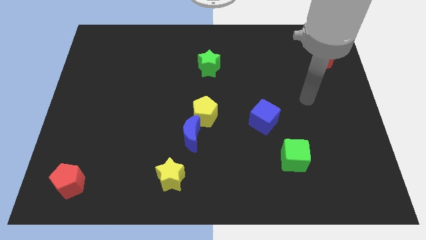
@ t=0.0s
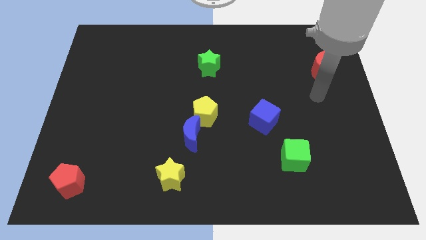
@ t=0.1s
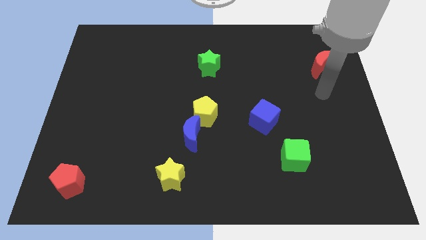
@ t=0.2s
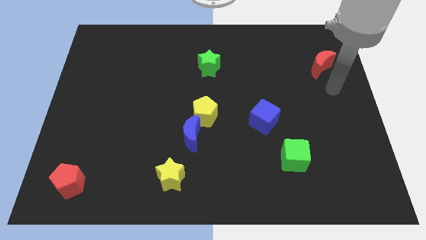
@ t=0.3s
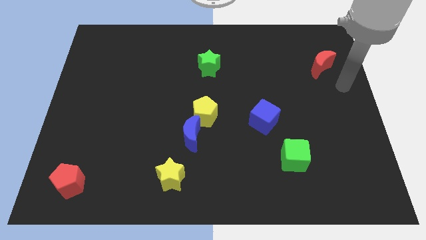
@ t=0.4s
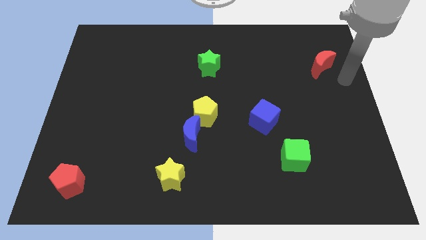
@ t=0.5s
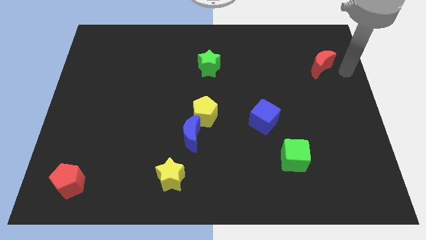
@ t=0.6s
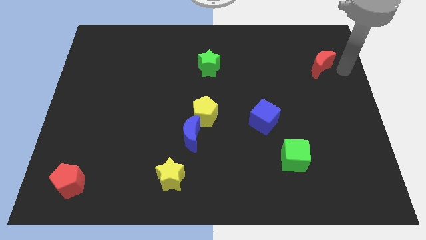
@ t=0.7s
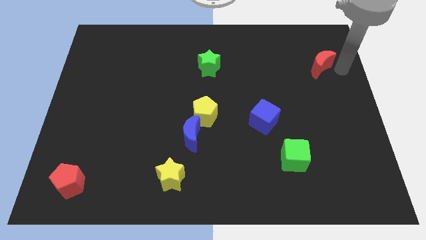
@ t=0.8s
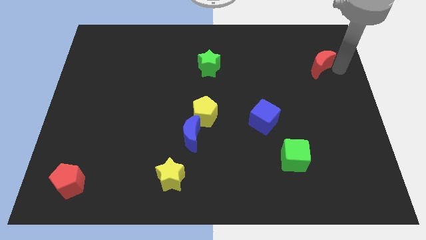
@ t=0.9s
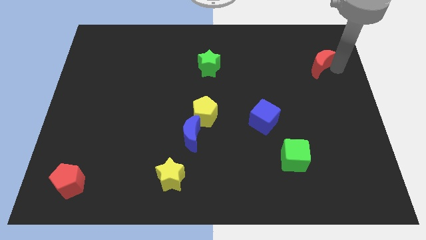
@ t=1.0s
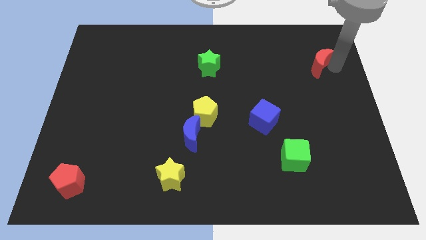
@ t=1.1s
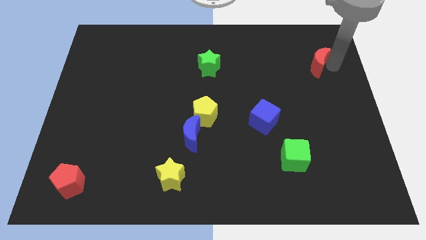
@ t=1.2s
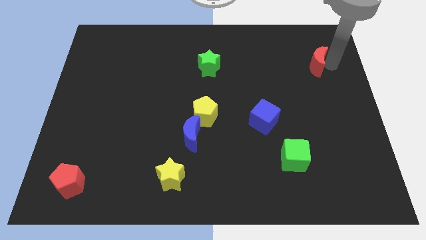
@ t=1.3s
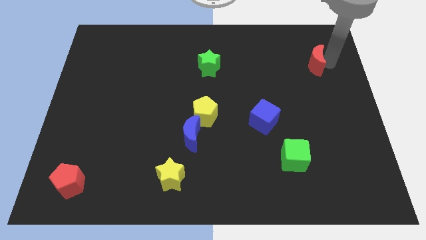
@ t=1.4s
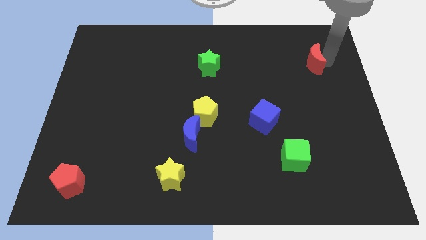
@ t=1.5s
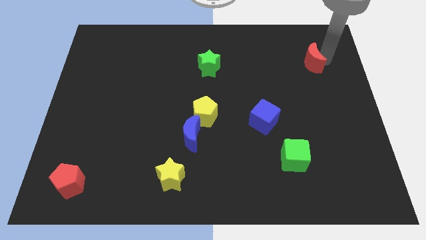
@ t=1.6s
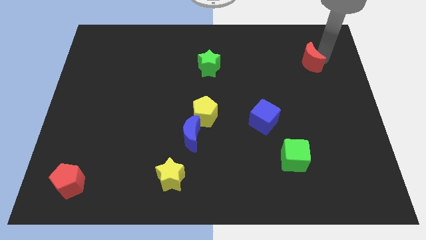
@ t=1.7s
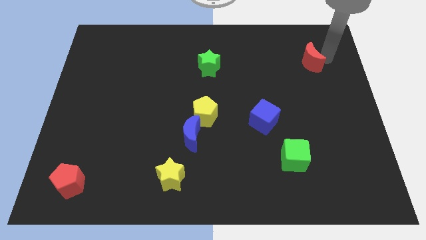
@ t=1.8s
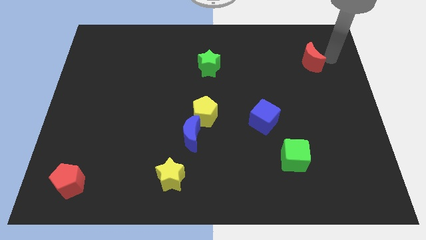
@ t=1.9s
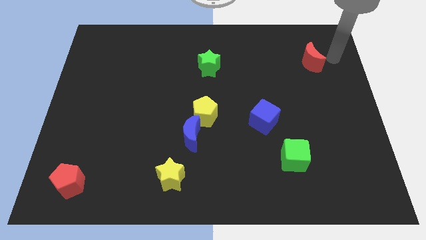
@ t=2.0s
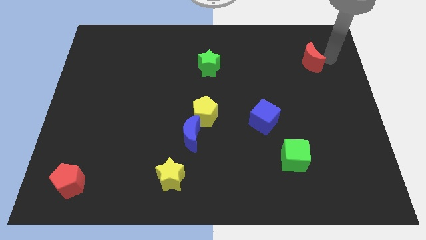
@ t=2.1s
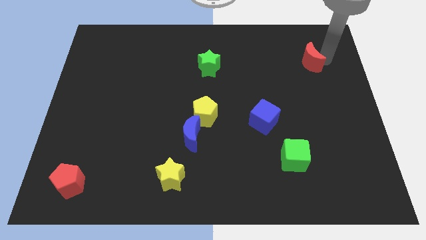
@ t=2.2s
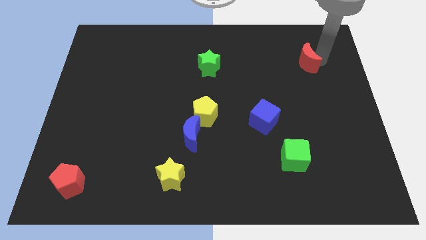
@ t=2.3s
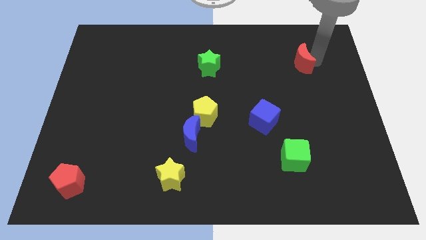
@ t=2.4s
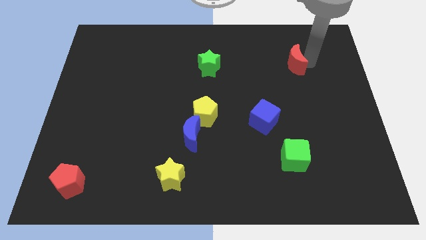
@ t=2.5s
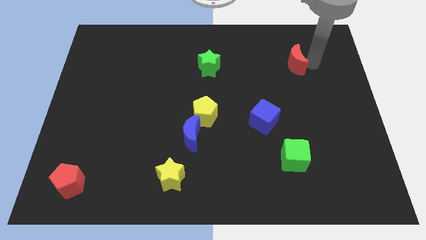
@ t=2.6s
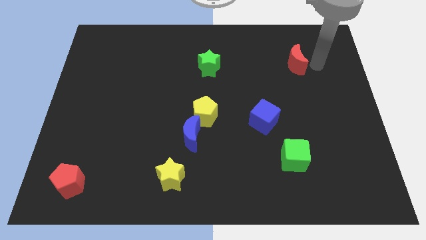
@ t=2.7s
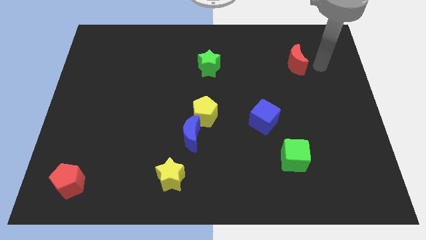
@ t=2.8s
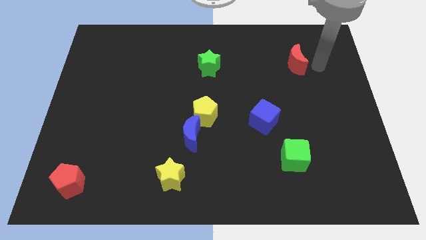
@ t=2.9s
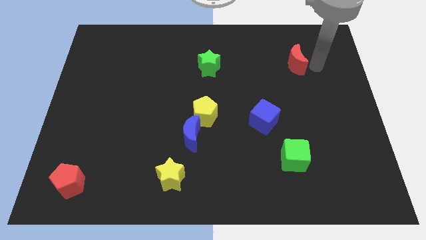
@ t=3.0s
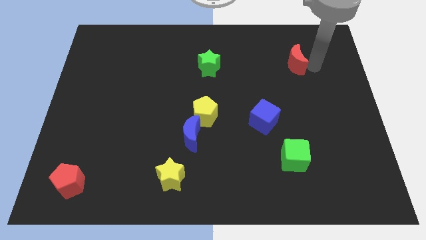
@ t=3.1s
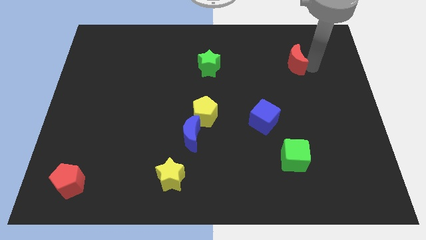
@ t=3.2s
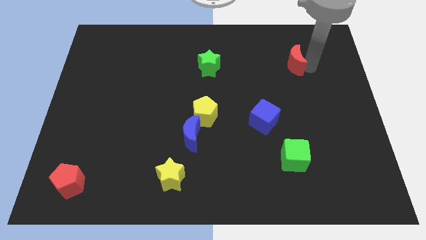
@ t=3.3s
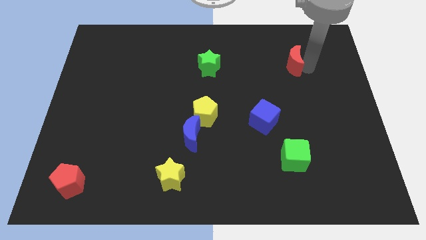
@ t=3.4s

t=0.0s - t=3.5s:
push the red moon to the left slightly

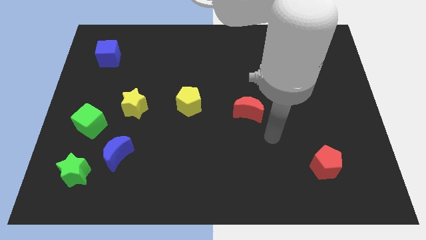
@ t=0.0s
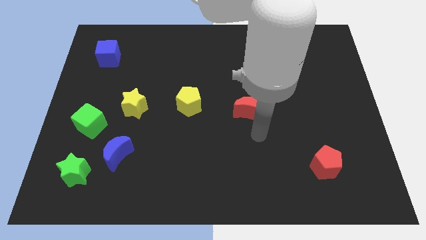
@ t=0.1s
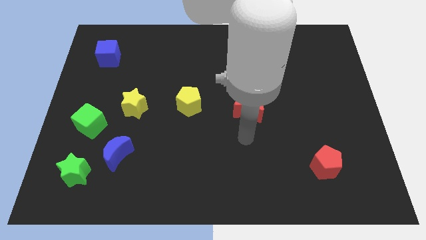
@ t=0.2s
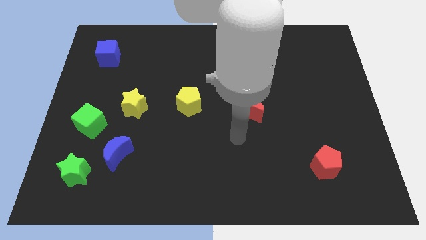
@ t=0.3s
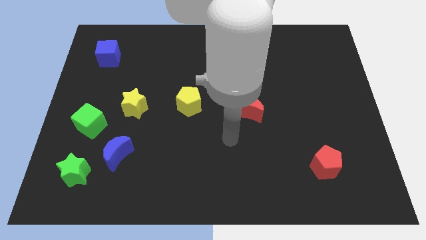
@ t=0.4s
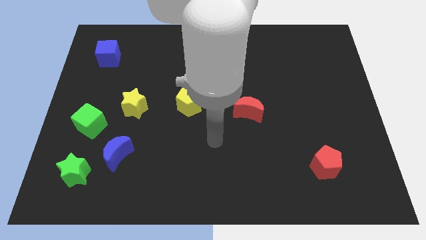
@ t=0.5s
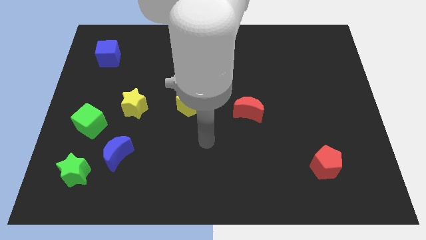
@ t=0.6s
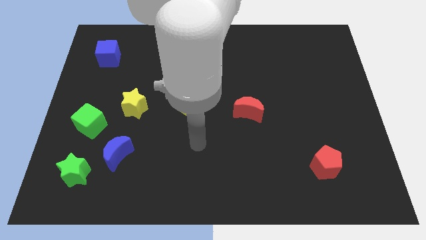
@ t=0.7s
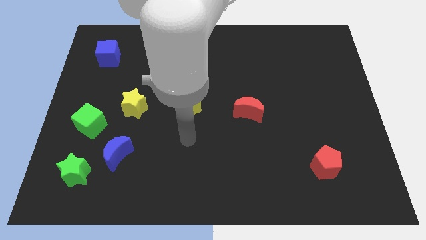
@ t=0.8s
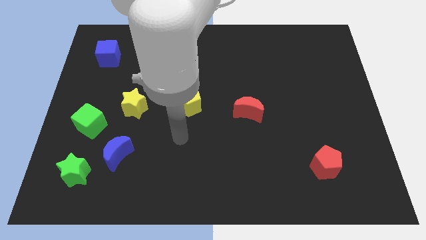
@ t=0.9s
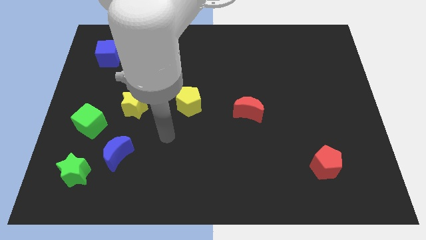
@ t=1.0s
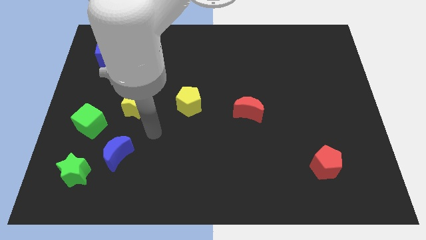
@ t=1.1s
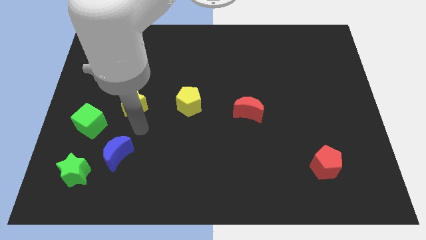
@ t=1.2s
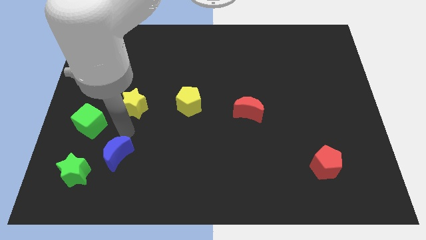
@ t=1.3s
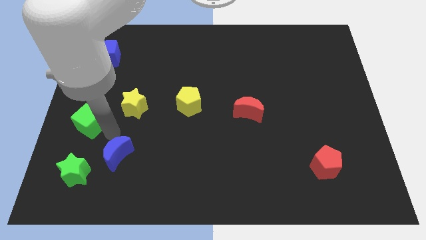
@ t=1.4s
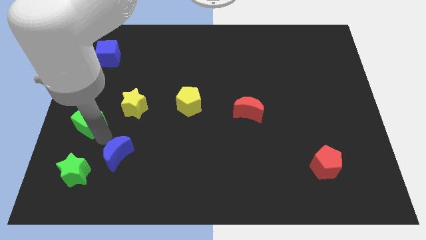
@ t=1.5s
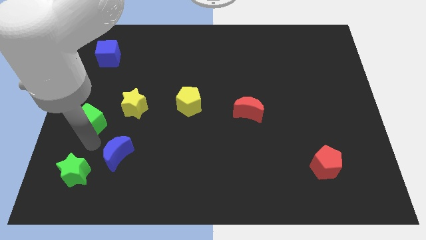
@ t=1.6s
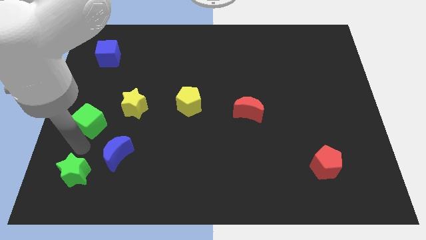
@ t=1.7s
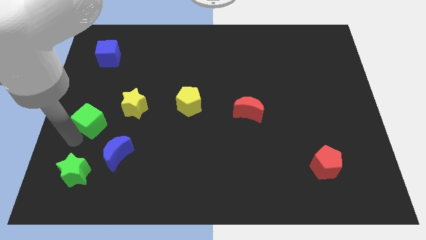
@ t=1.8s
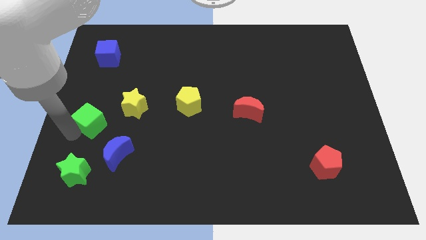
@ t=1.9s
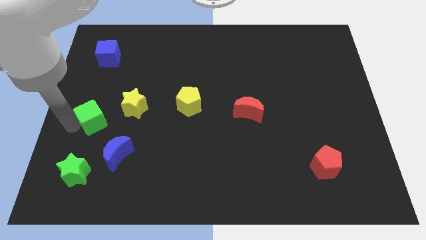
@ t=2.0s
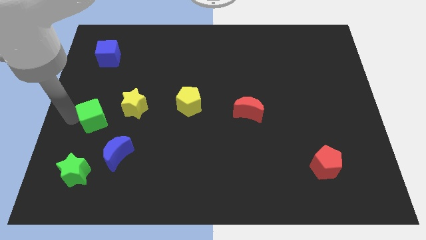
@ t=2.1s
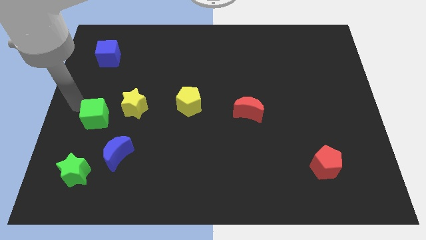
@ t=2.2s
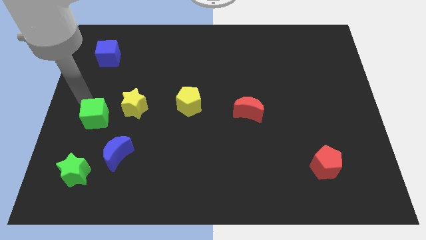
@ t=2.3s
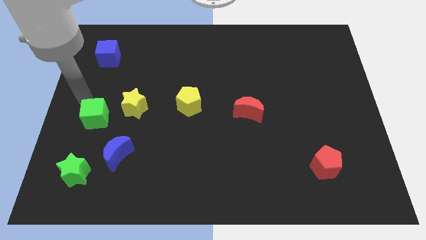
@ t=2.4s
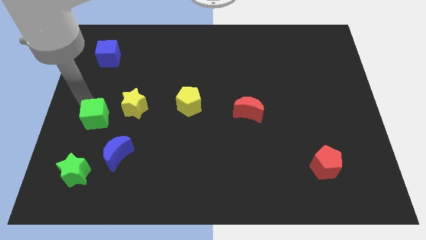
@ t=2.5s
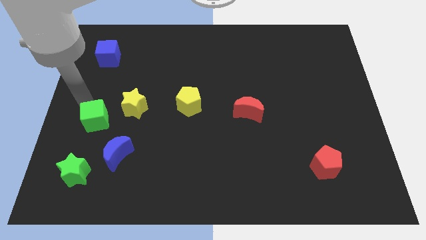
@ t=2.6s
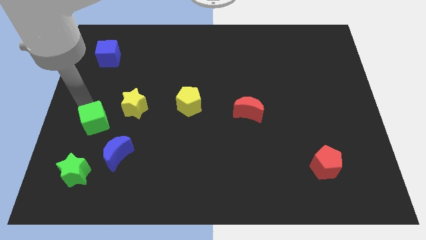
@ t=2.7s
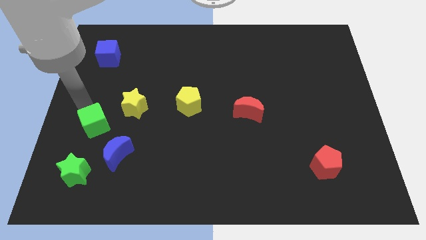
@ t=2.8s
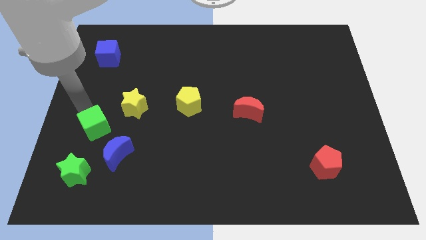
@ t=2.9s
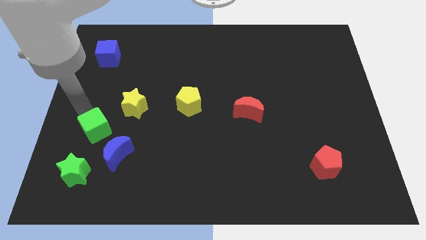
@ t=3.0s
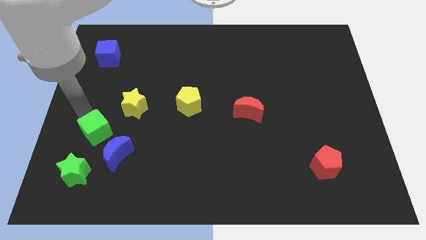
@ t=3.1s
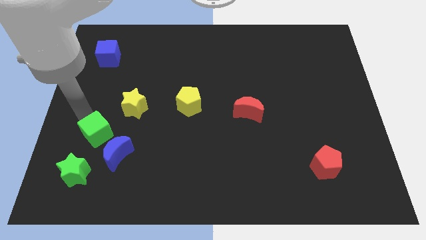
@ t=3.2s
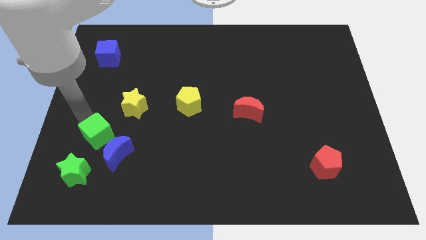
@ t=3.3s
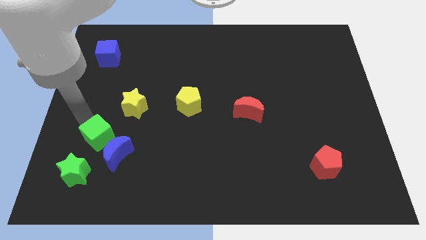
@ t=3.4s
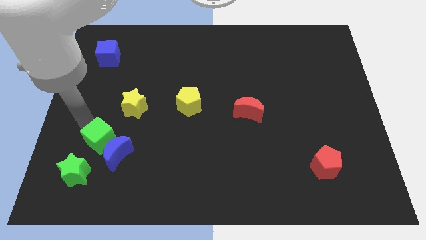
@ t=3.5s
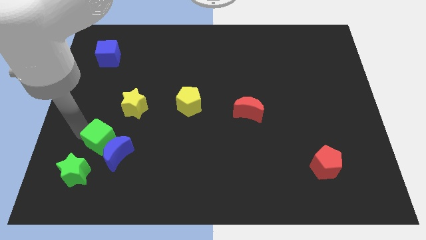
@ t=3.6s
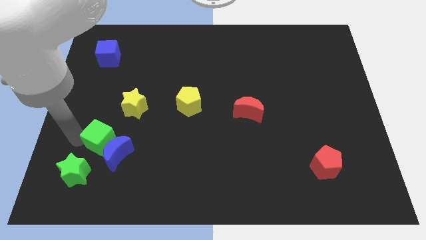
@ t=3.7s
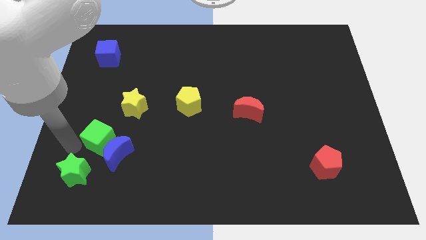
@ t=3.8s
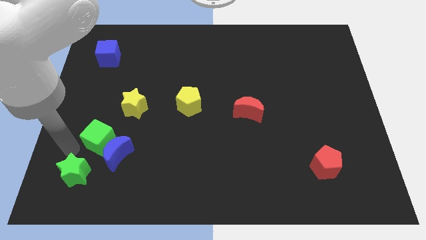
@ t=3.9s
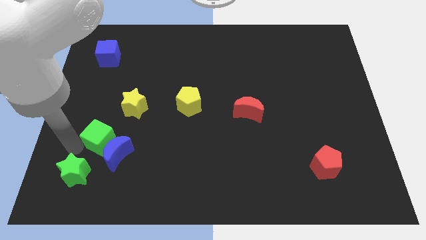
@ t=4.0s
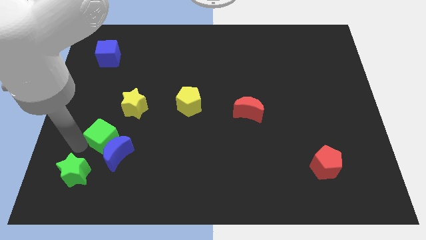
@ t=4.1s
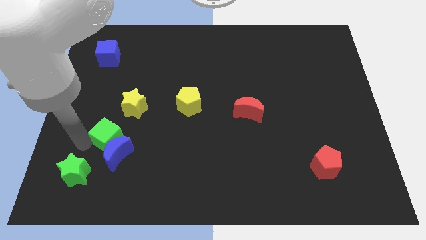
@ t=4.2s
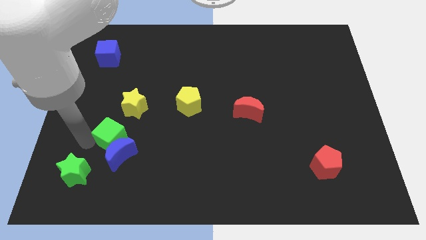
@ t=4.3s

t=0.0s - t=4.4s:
slide the green cube diagonally downwards and to the right somewhat
